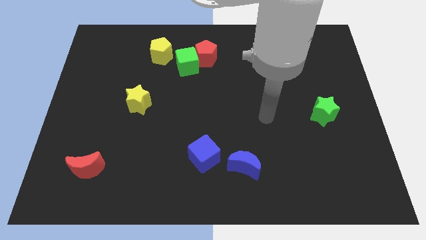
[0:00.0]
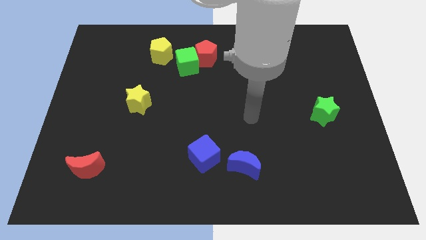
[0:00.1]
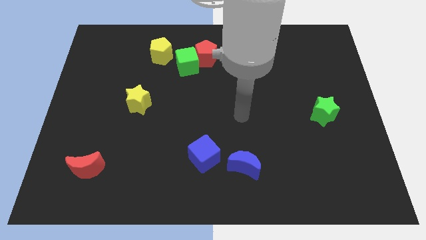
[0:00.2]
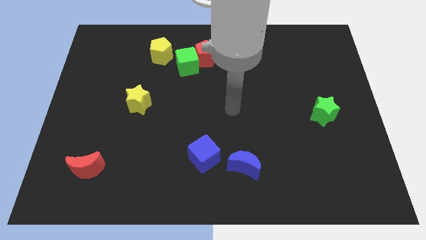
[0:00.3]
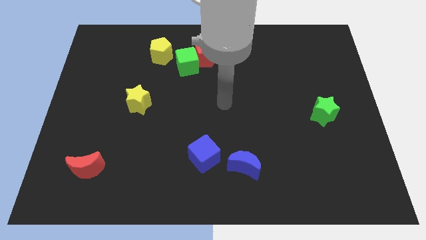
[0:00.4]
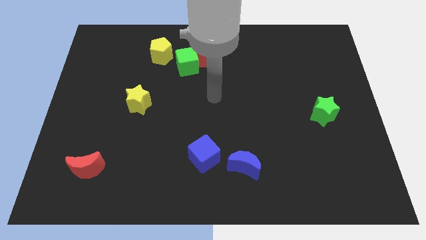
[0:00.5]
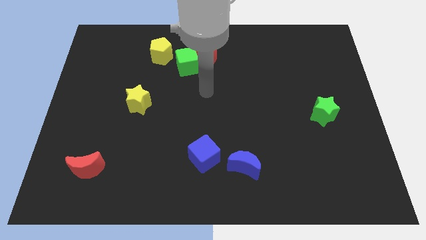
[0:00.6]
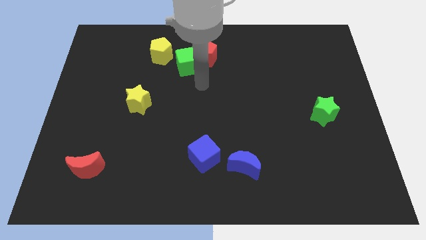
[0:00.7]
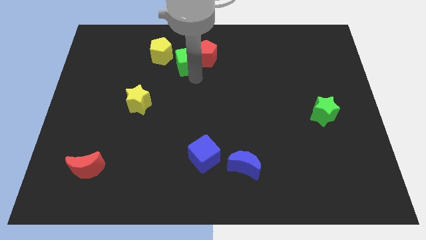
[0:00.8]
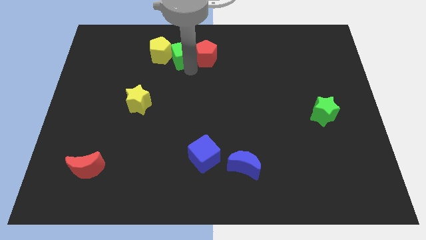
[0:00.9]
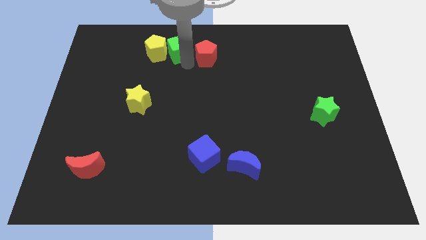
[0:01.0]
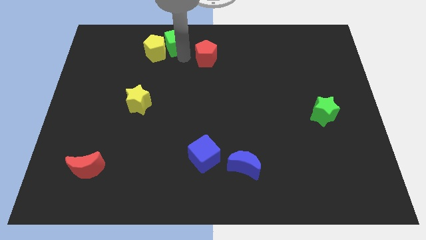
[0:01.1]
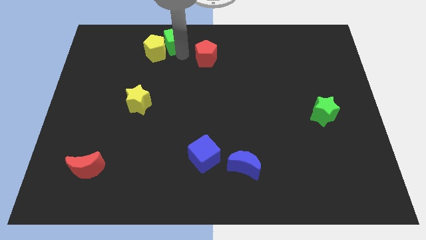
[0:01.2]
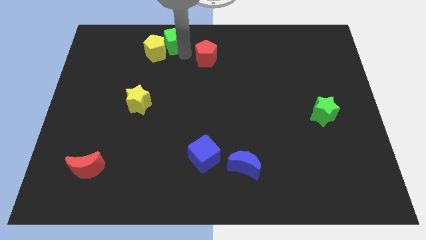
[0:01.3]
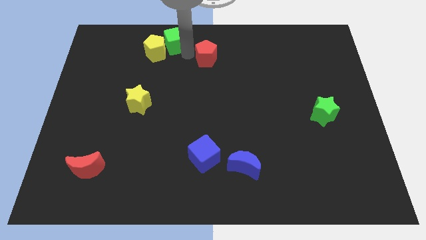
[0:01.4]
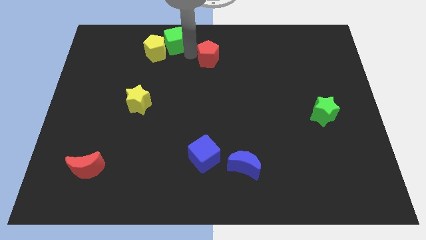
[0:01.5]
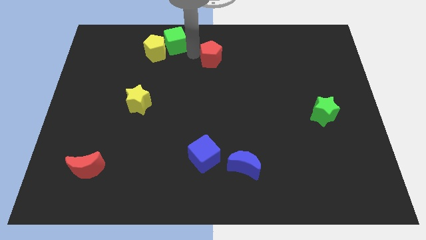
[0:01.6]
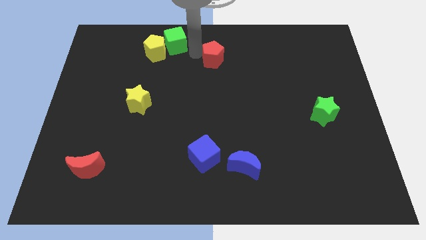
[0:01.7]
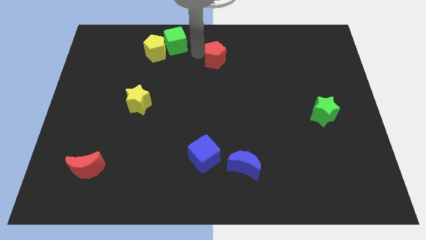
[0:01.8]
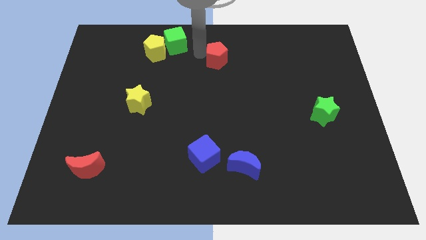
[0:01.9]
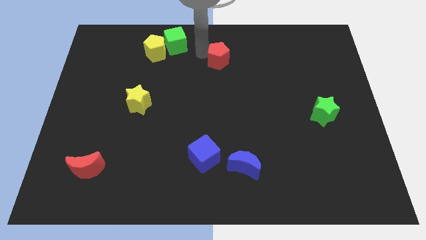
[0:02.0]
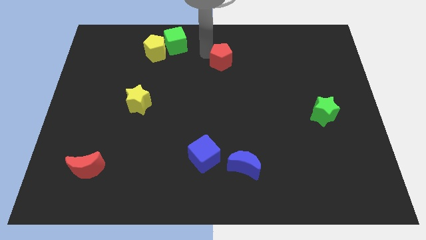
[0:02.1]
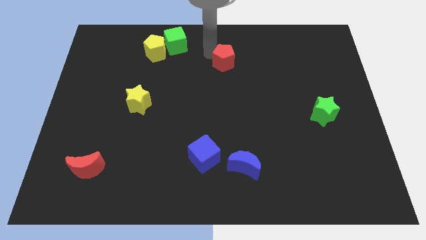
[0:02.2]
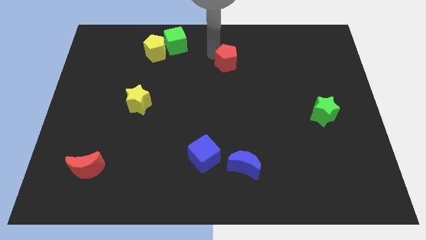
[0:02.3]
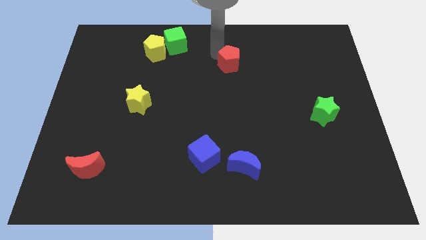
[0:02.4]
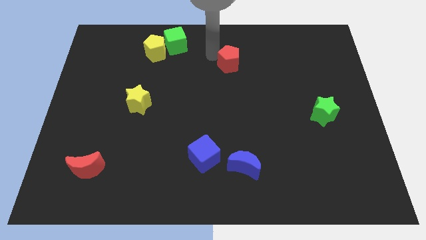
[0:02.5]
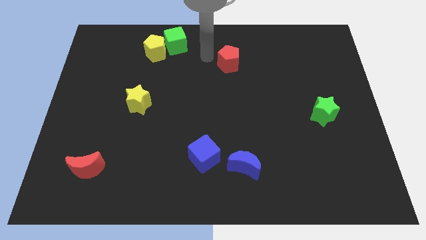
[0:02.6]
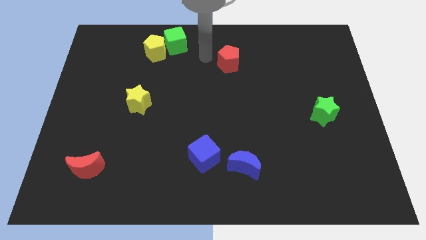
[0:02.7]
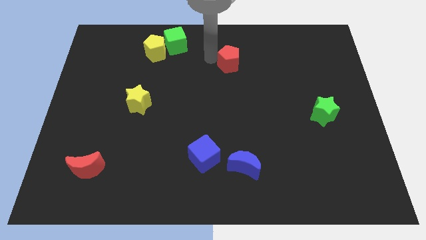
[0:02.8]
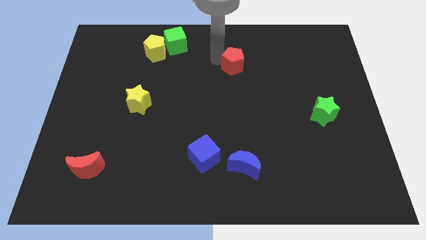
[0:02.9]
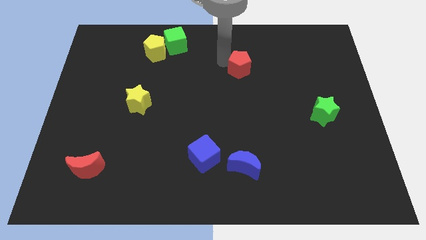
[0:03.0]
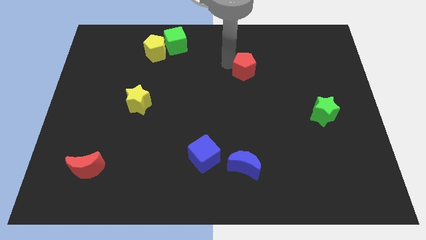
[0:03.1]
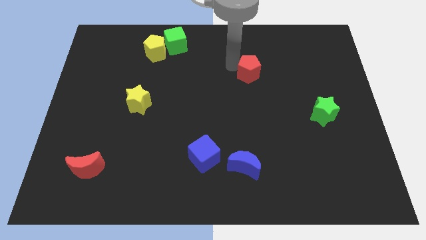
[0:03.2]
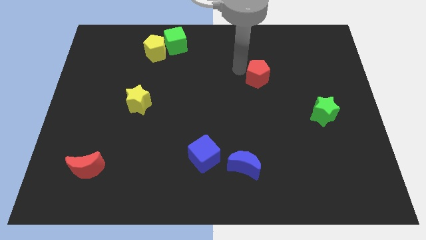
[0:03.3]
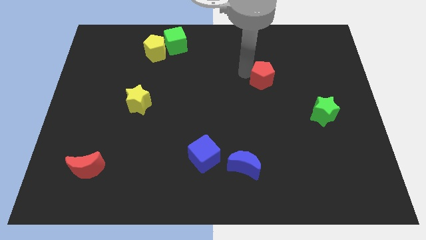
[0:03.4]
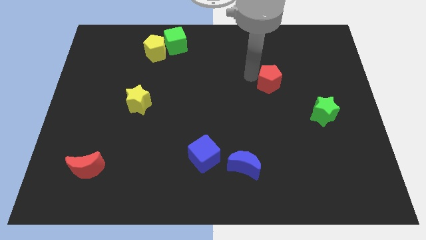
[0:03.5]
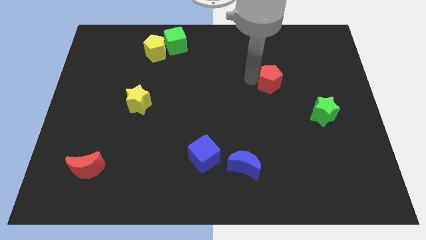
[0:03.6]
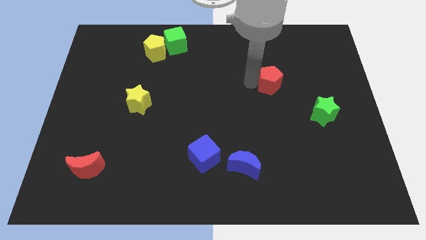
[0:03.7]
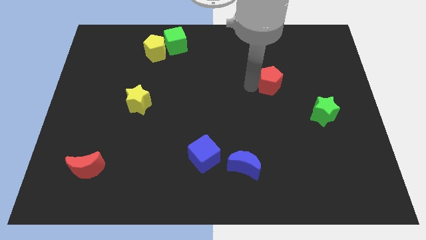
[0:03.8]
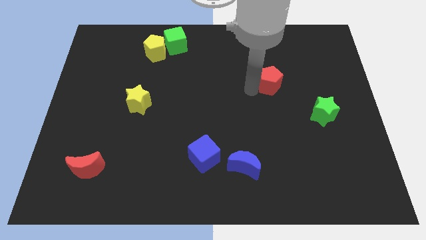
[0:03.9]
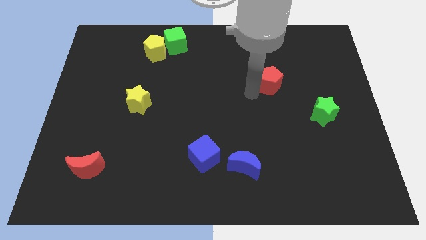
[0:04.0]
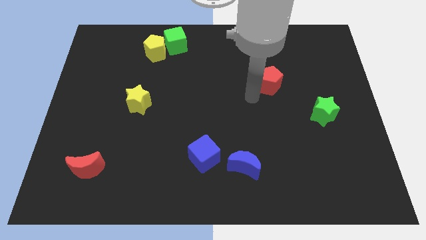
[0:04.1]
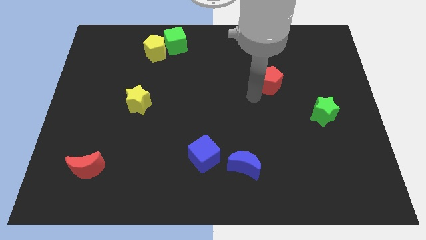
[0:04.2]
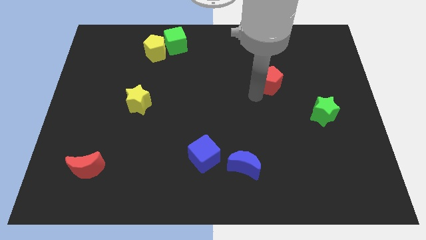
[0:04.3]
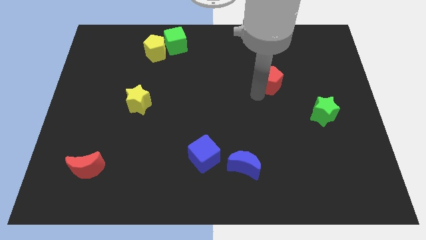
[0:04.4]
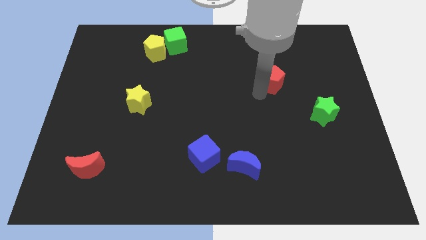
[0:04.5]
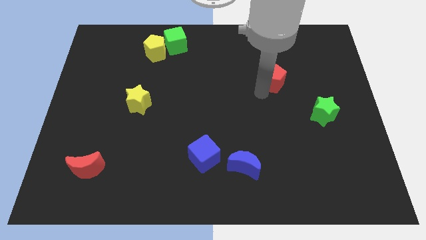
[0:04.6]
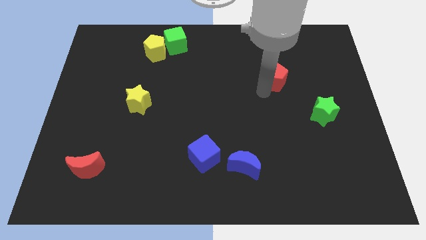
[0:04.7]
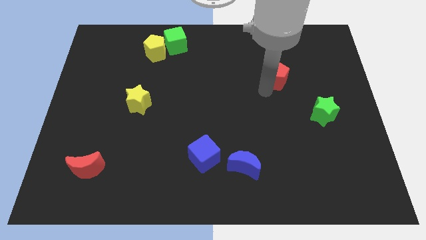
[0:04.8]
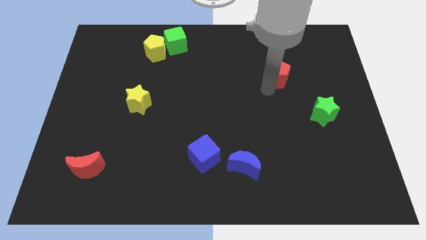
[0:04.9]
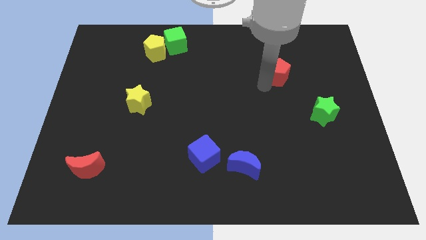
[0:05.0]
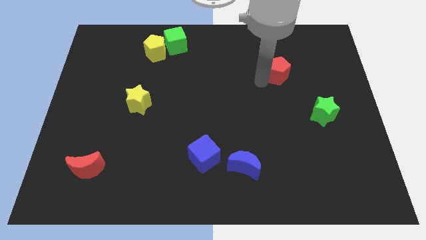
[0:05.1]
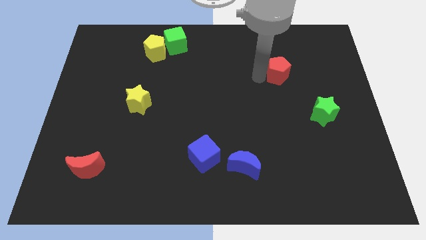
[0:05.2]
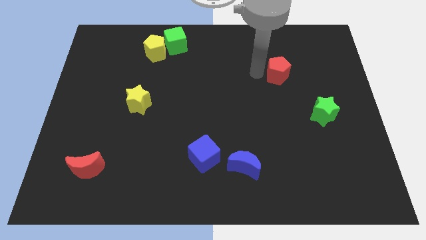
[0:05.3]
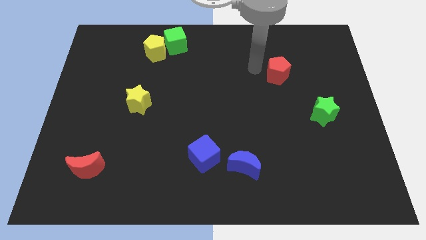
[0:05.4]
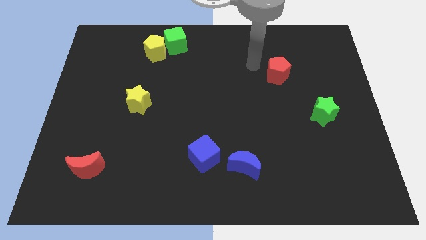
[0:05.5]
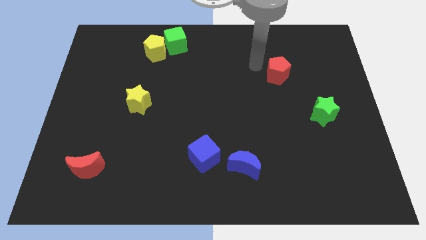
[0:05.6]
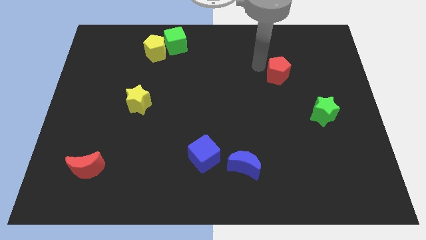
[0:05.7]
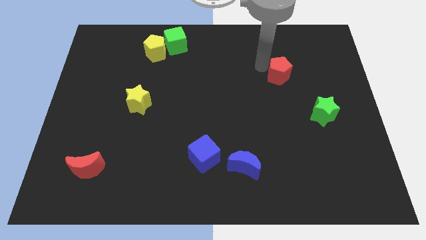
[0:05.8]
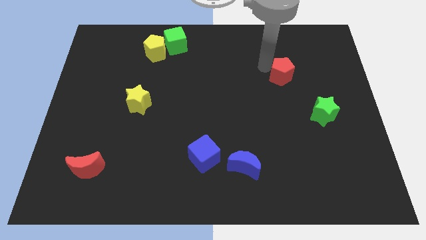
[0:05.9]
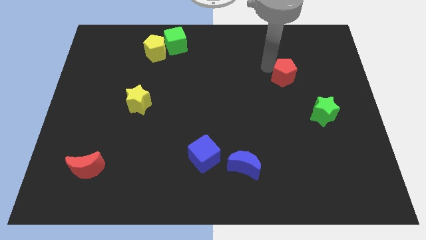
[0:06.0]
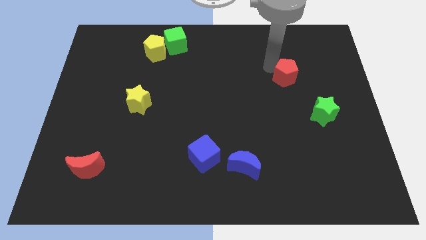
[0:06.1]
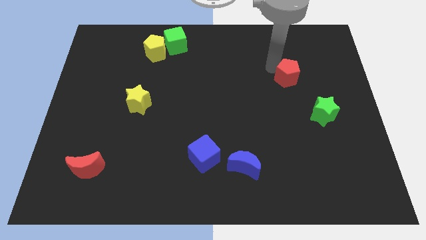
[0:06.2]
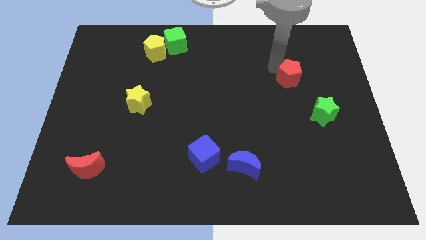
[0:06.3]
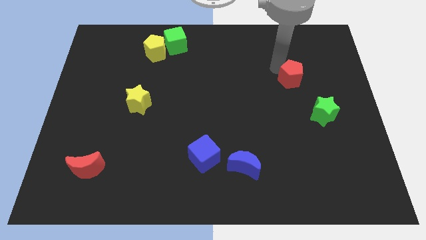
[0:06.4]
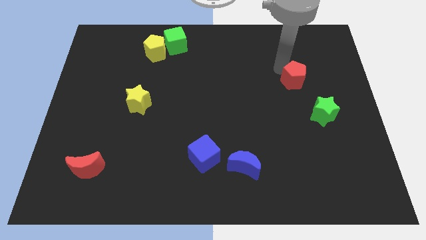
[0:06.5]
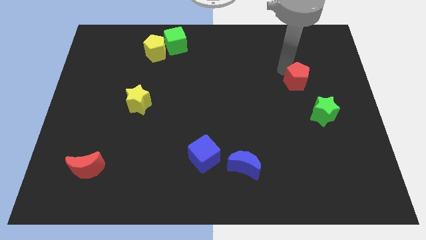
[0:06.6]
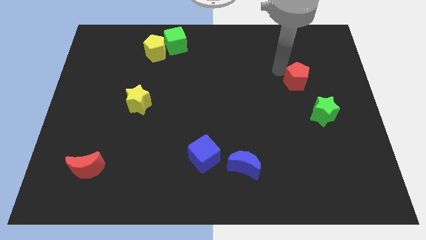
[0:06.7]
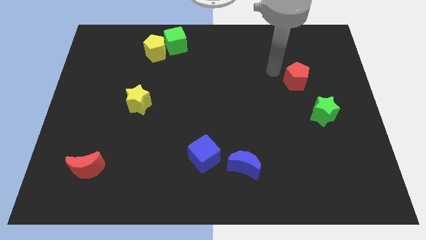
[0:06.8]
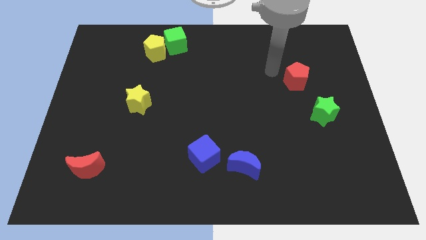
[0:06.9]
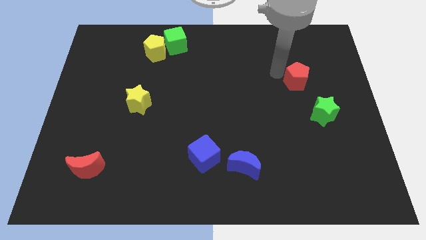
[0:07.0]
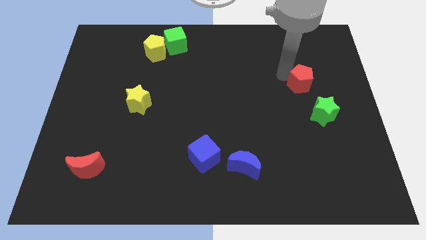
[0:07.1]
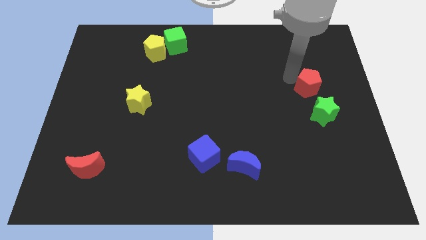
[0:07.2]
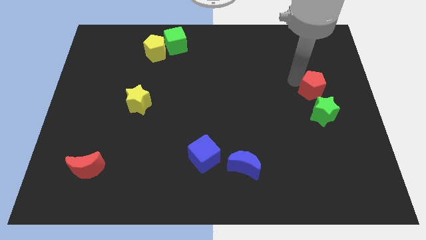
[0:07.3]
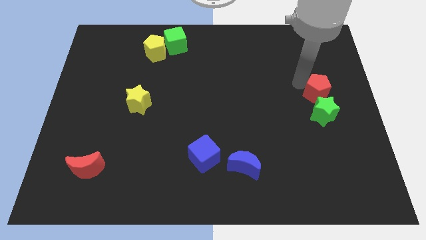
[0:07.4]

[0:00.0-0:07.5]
put the red pentagon to the center right
